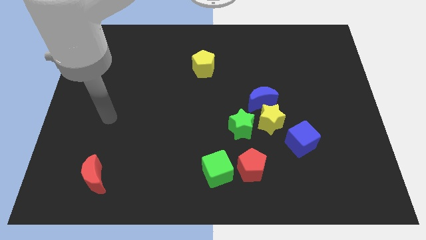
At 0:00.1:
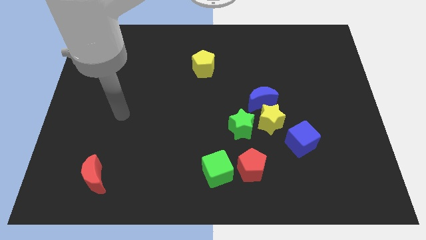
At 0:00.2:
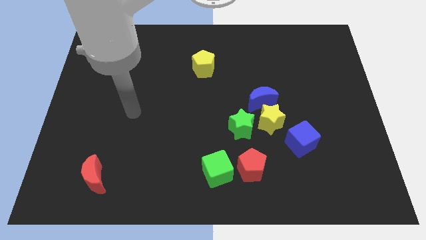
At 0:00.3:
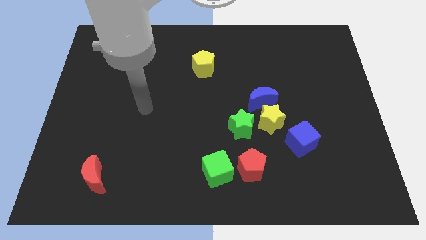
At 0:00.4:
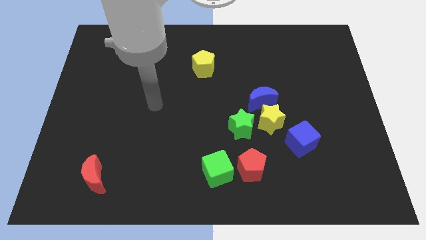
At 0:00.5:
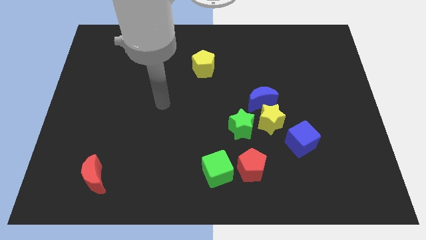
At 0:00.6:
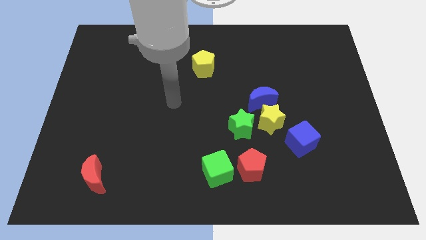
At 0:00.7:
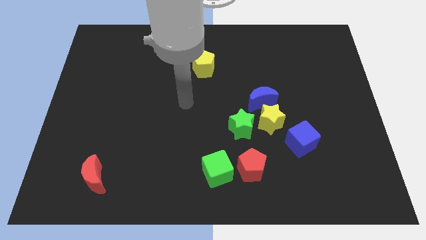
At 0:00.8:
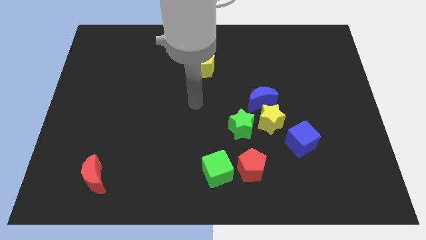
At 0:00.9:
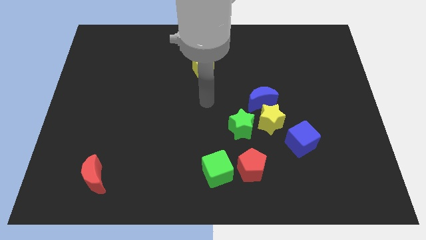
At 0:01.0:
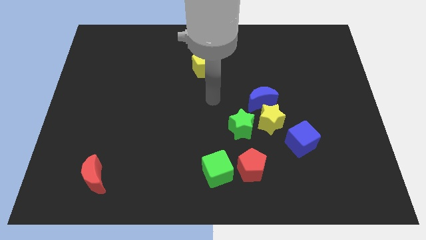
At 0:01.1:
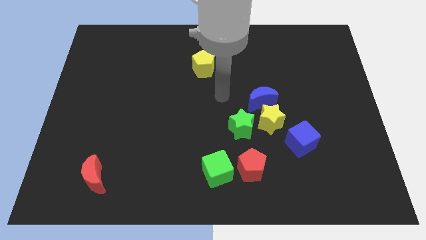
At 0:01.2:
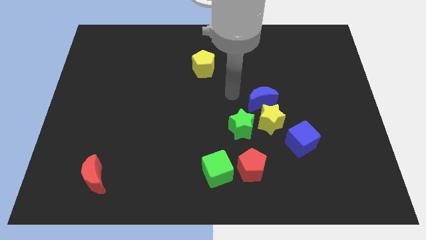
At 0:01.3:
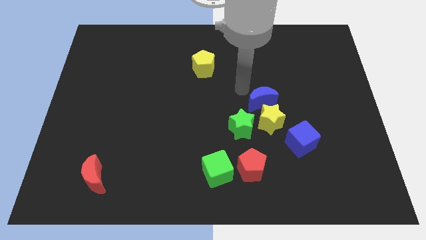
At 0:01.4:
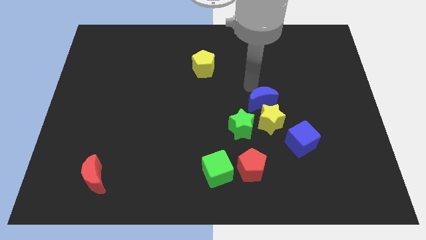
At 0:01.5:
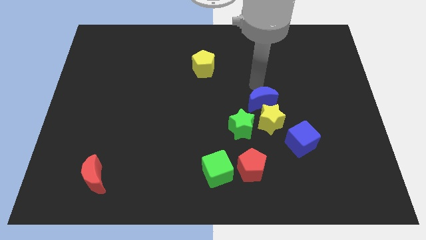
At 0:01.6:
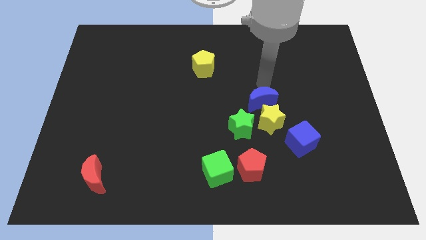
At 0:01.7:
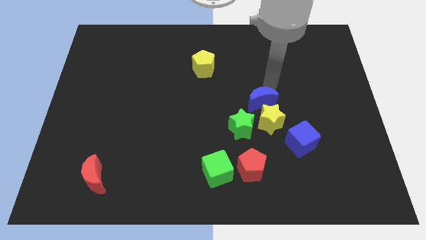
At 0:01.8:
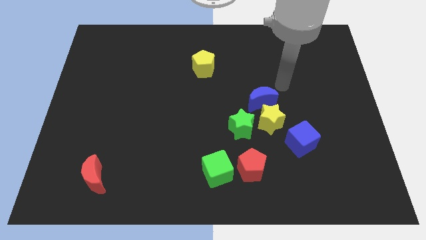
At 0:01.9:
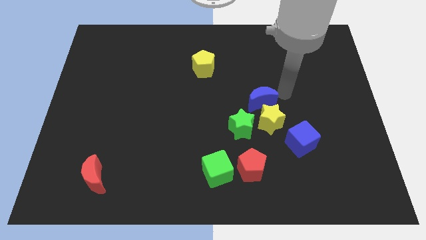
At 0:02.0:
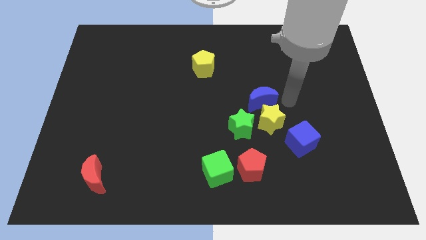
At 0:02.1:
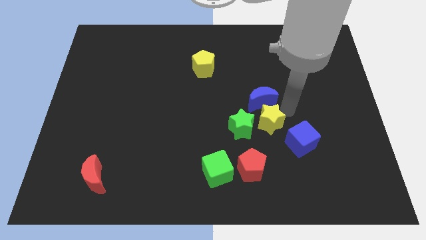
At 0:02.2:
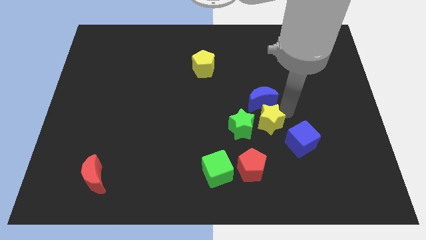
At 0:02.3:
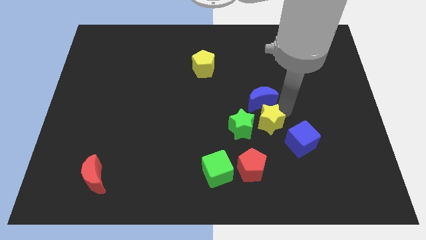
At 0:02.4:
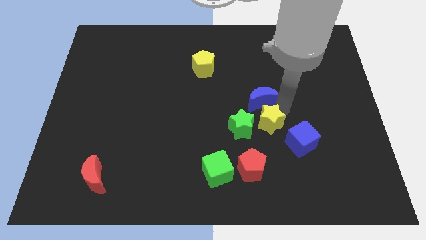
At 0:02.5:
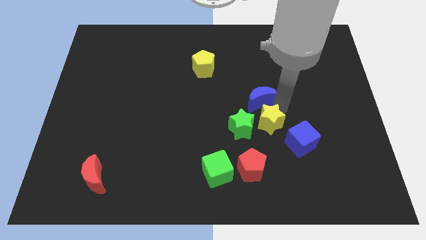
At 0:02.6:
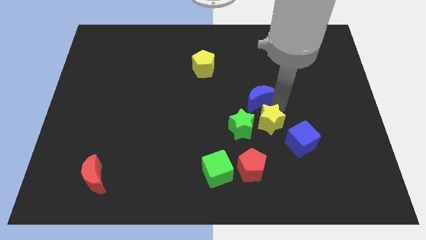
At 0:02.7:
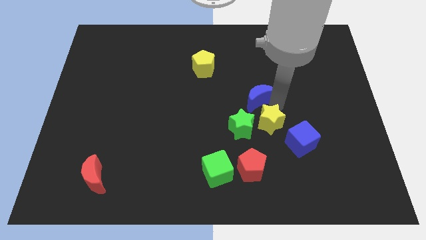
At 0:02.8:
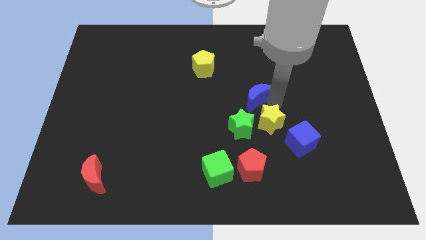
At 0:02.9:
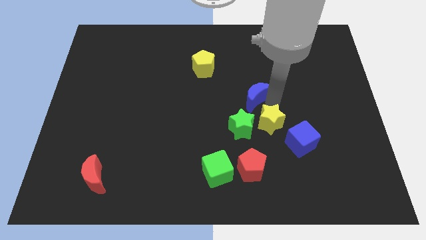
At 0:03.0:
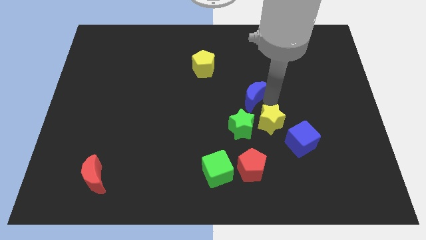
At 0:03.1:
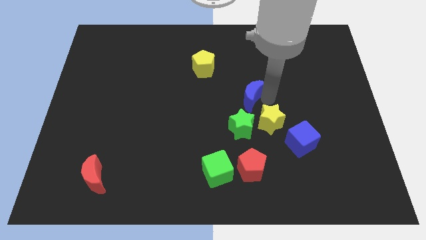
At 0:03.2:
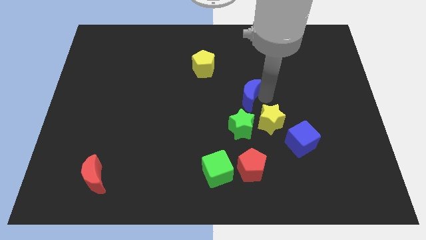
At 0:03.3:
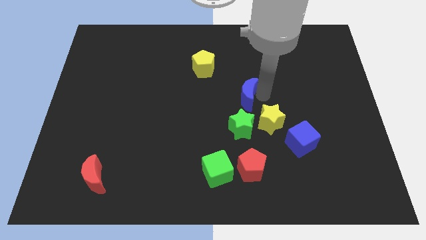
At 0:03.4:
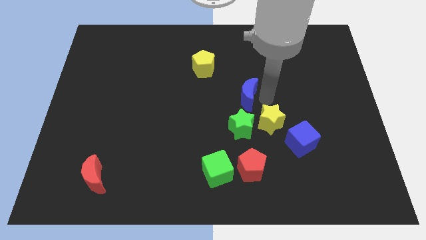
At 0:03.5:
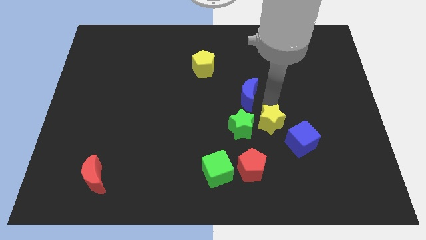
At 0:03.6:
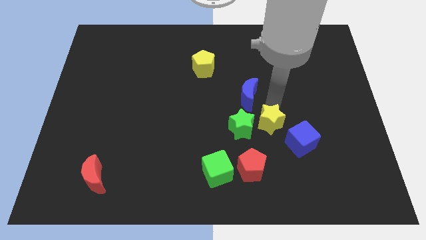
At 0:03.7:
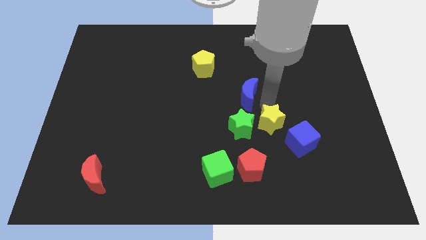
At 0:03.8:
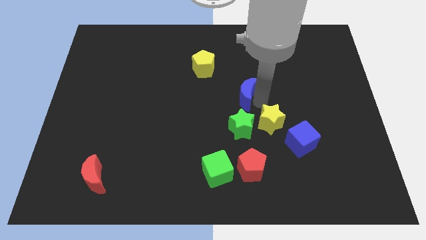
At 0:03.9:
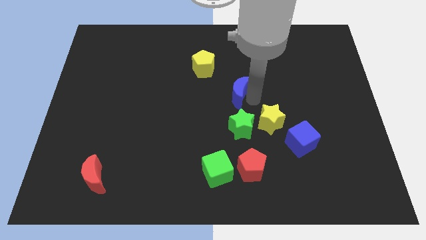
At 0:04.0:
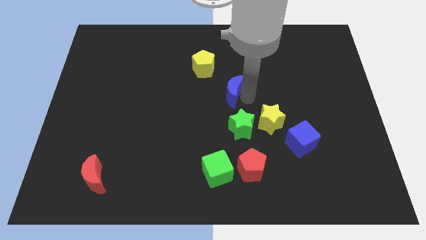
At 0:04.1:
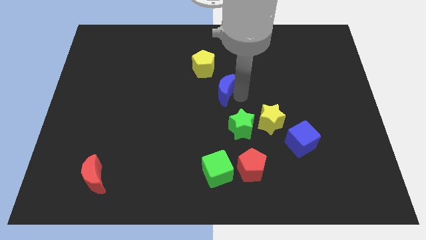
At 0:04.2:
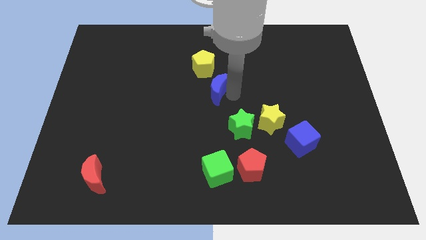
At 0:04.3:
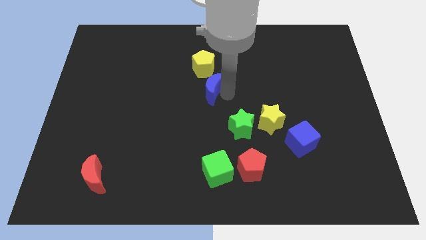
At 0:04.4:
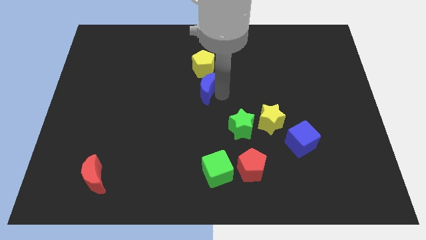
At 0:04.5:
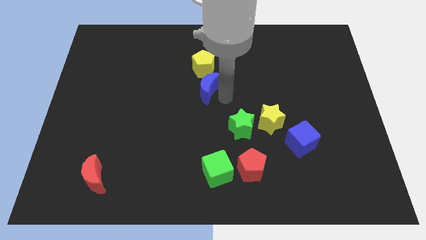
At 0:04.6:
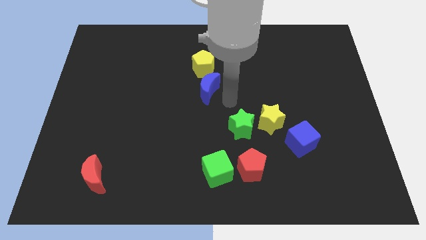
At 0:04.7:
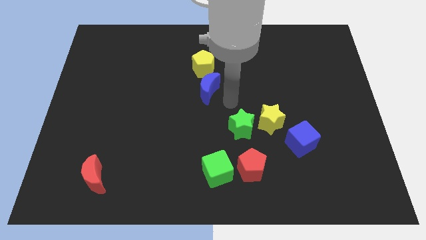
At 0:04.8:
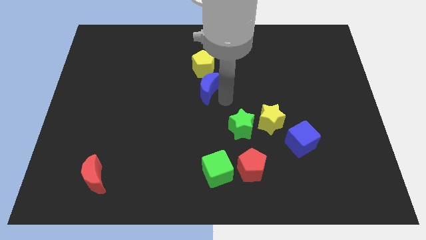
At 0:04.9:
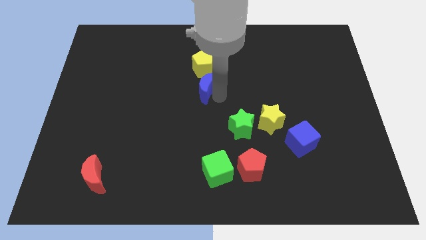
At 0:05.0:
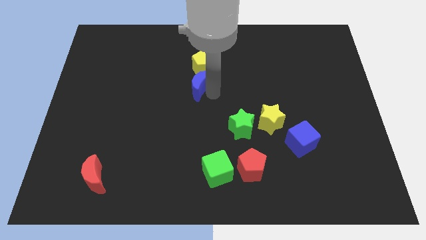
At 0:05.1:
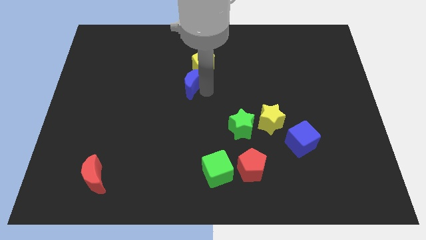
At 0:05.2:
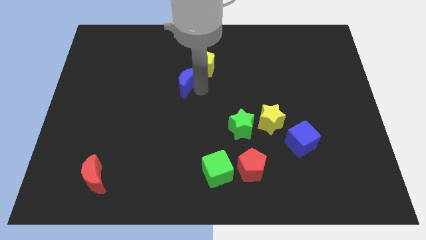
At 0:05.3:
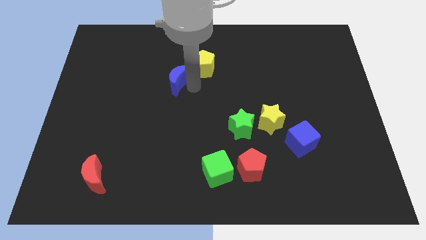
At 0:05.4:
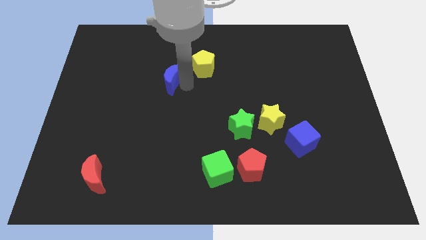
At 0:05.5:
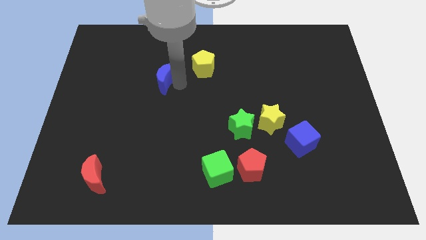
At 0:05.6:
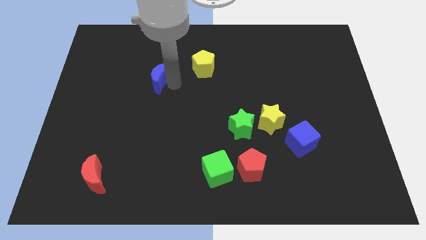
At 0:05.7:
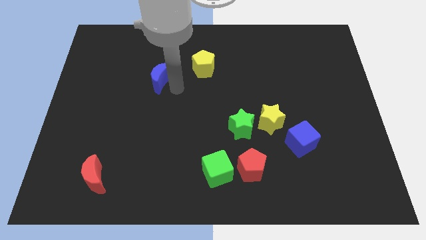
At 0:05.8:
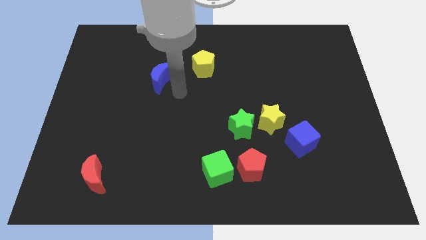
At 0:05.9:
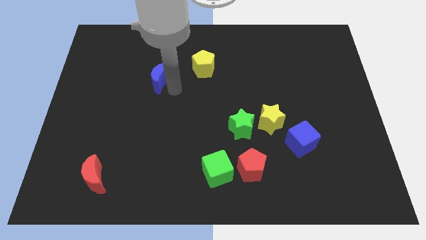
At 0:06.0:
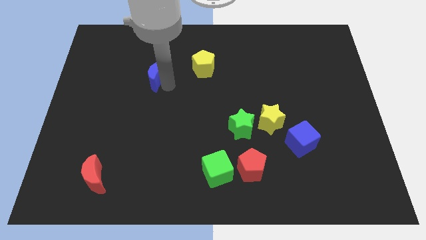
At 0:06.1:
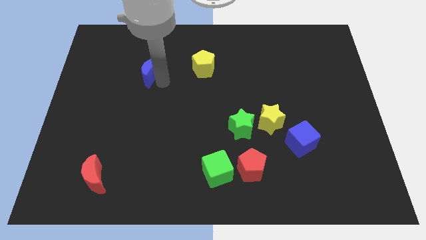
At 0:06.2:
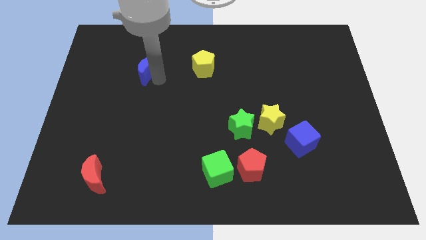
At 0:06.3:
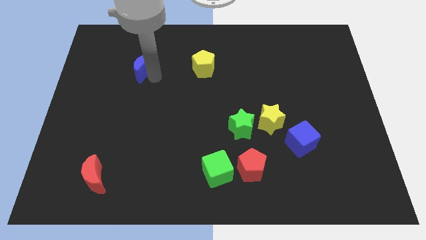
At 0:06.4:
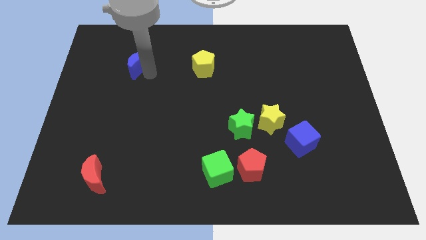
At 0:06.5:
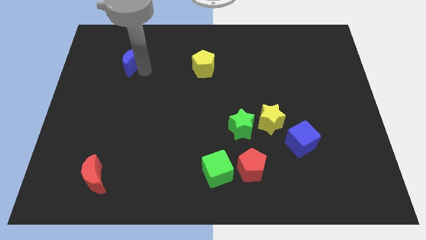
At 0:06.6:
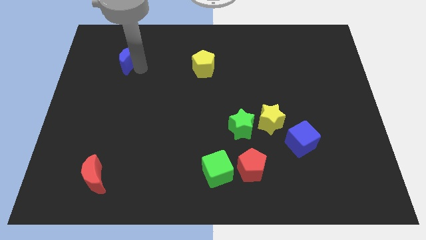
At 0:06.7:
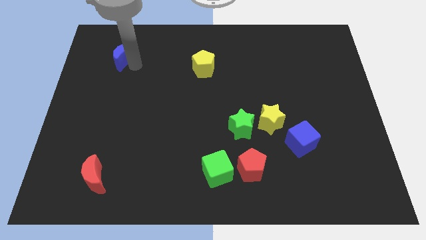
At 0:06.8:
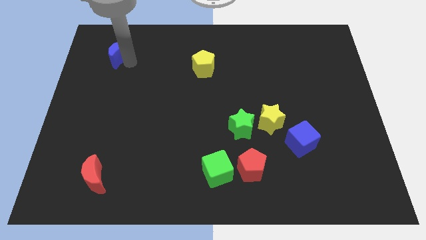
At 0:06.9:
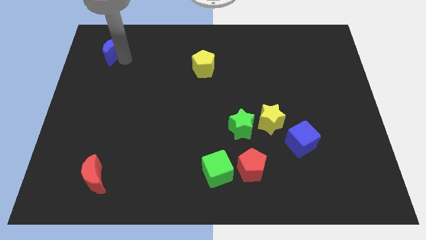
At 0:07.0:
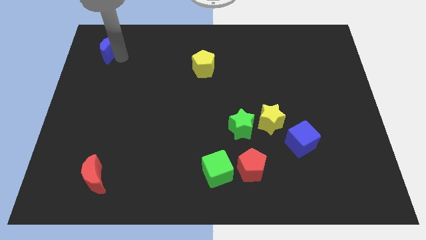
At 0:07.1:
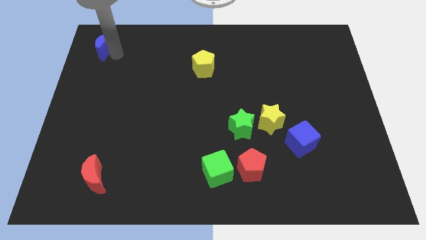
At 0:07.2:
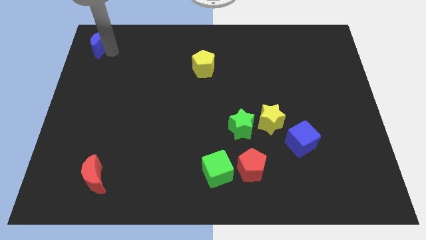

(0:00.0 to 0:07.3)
put the blue moon to the top left corner
